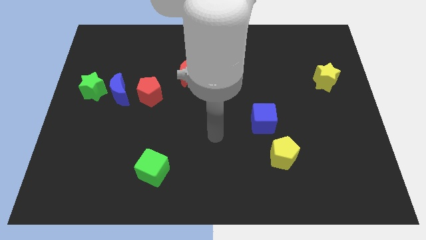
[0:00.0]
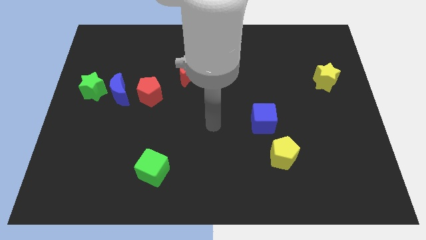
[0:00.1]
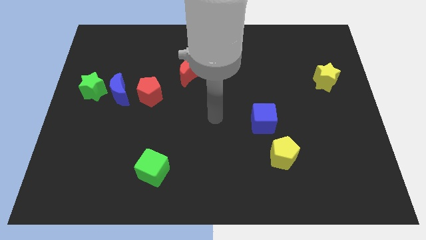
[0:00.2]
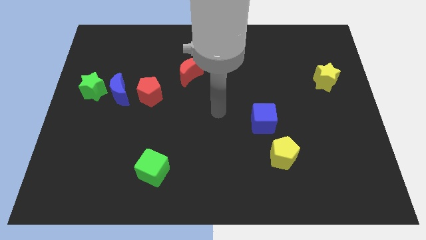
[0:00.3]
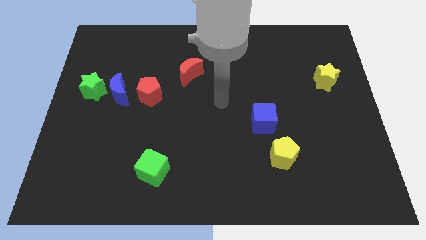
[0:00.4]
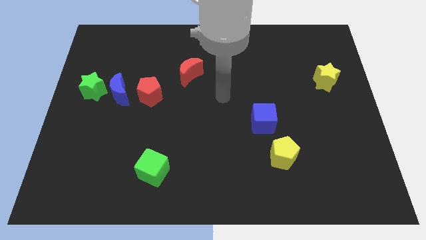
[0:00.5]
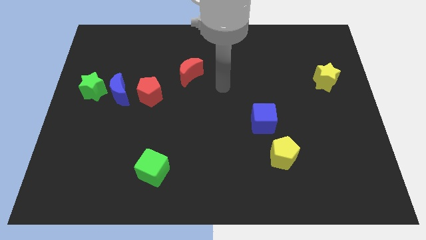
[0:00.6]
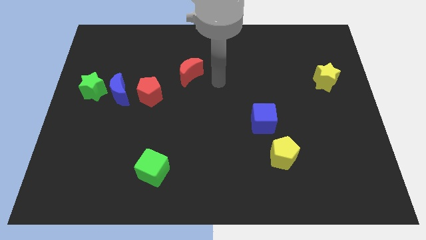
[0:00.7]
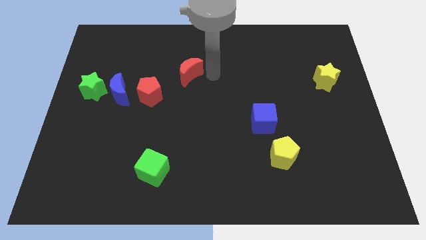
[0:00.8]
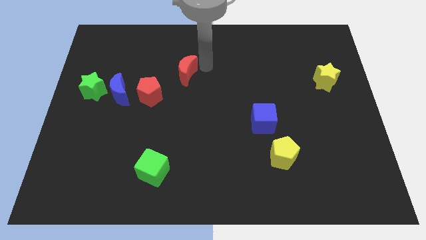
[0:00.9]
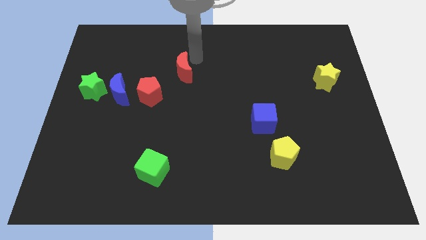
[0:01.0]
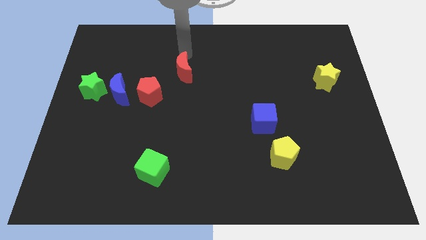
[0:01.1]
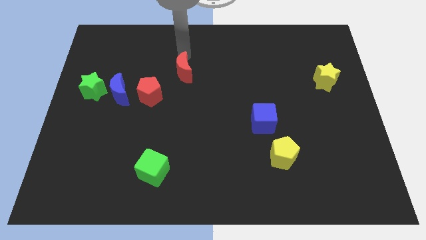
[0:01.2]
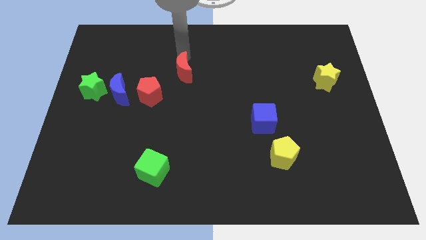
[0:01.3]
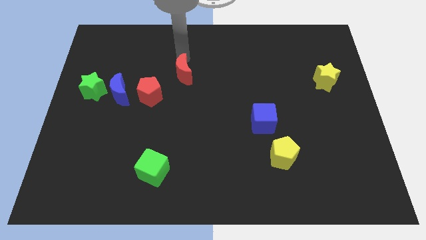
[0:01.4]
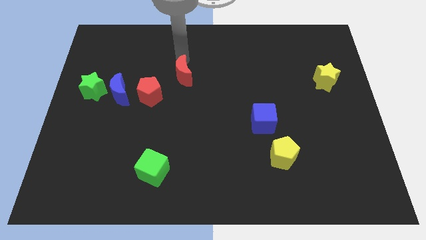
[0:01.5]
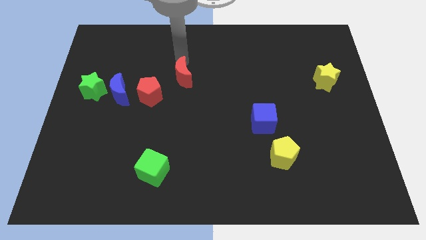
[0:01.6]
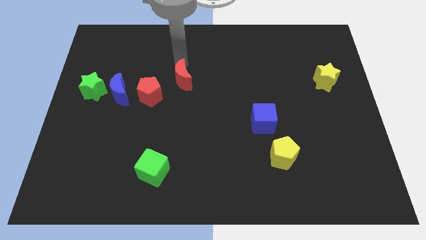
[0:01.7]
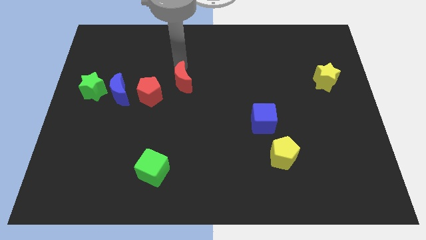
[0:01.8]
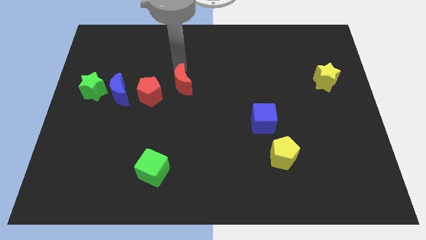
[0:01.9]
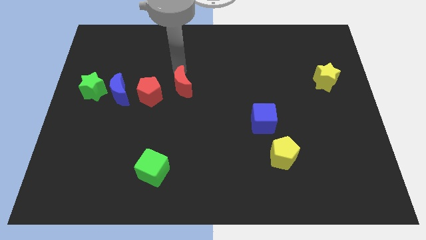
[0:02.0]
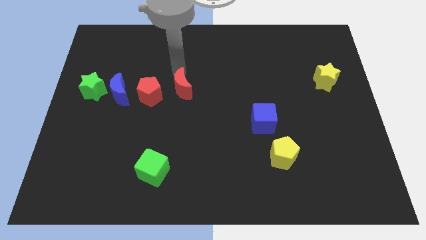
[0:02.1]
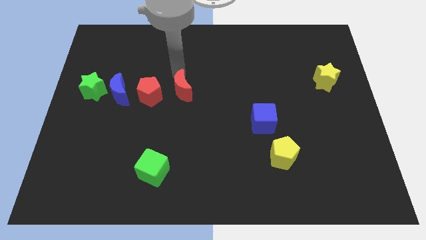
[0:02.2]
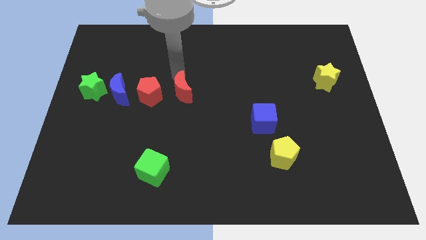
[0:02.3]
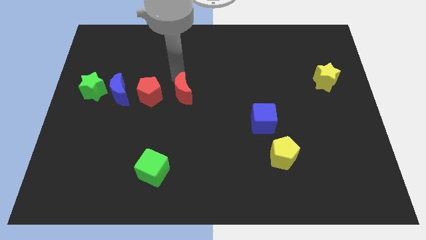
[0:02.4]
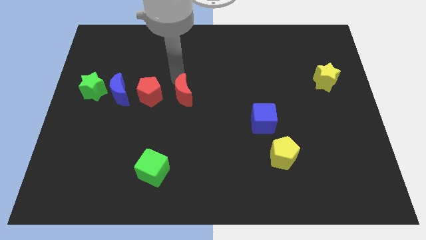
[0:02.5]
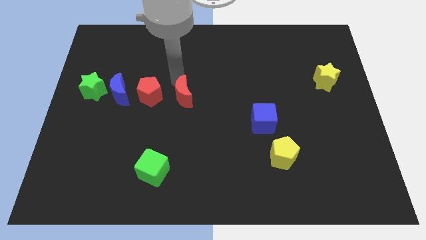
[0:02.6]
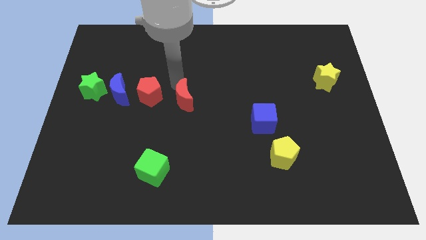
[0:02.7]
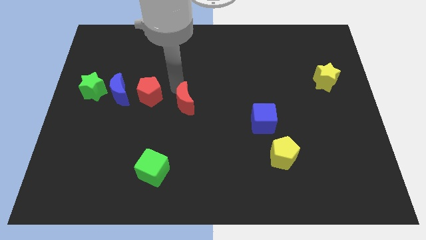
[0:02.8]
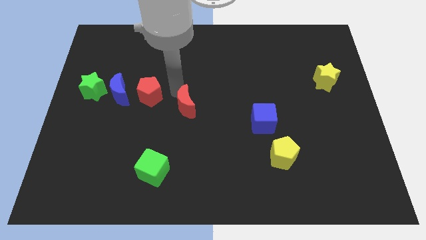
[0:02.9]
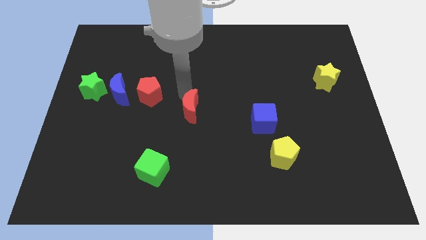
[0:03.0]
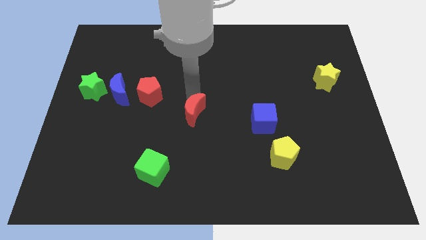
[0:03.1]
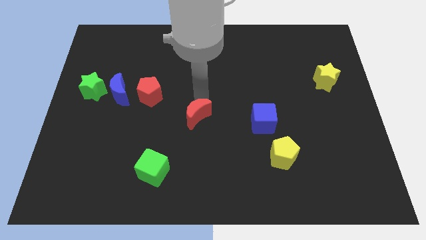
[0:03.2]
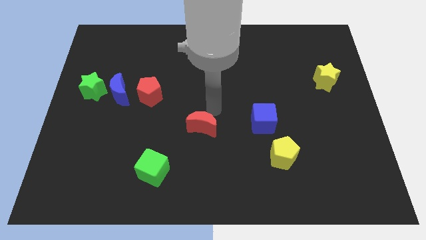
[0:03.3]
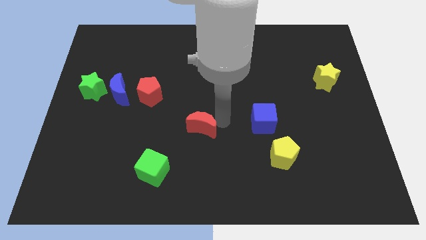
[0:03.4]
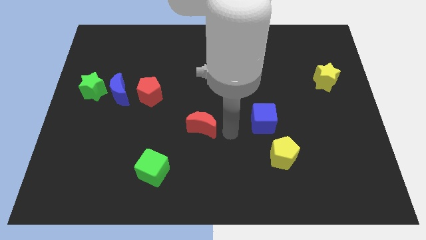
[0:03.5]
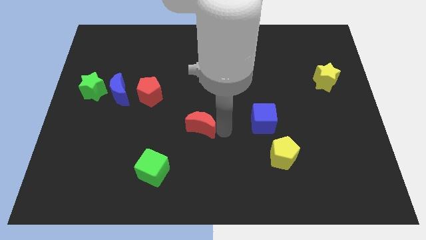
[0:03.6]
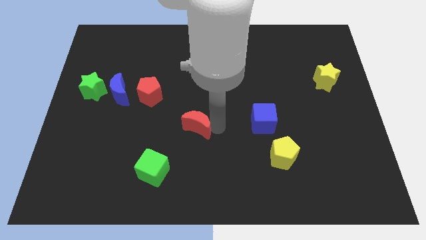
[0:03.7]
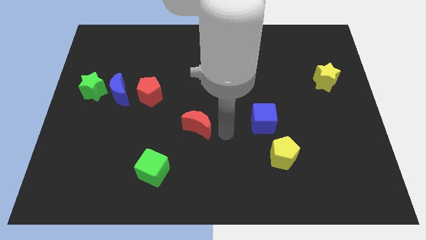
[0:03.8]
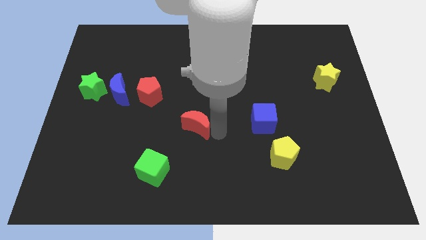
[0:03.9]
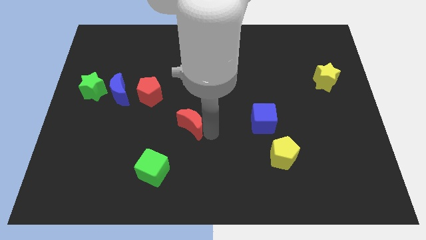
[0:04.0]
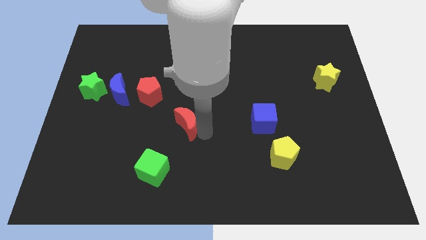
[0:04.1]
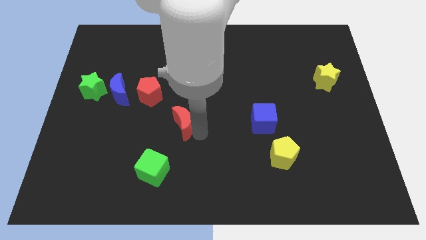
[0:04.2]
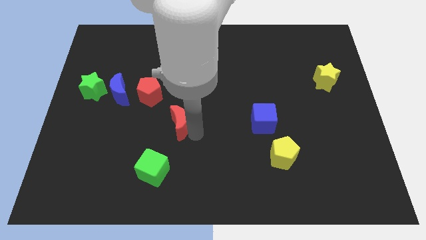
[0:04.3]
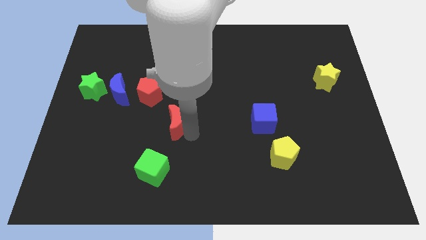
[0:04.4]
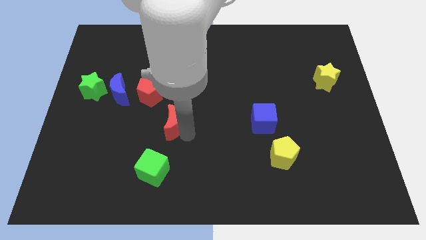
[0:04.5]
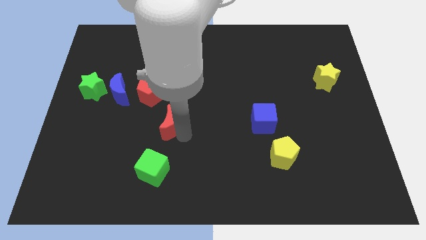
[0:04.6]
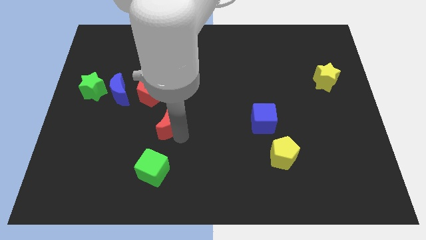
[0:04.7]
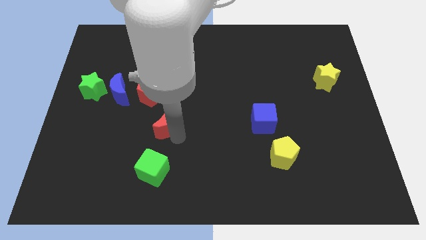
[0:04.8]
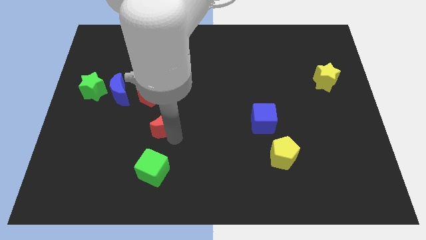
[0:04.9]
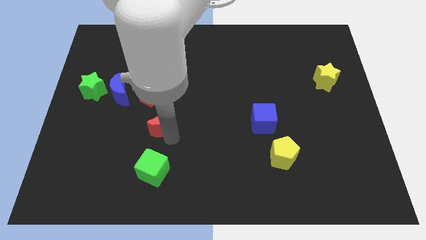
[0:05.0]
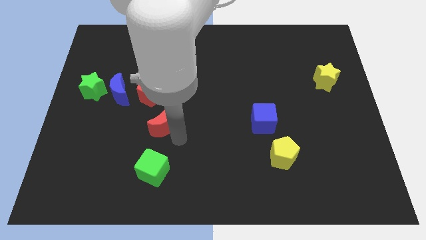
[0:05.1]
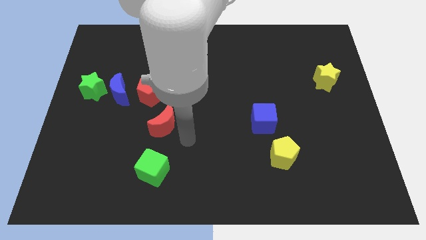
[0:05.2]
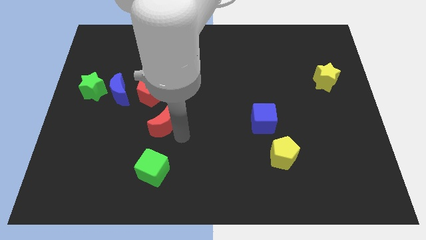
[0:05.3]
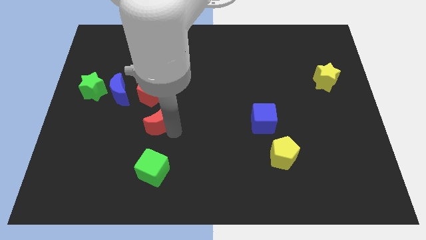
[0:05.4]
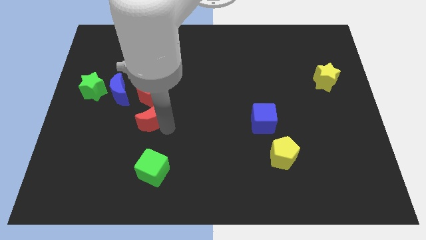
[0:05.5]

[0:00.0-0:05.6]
slide the red moon to the bottom right side of the blue moon

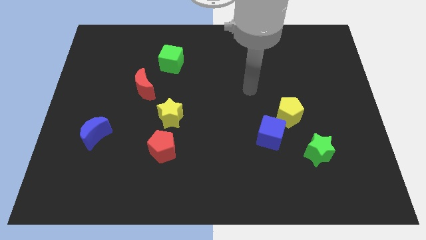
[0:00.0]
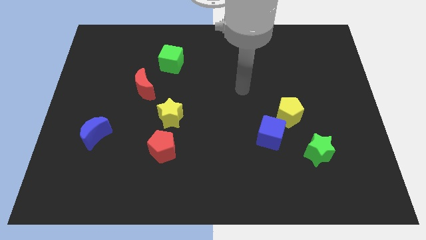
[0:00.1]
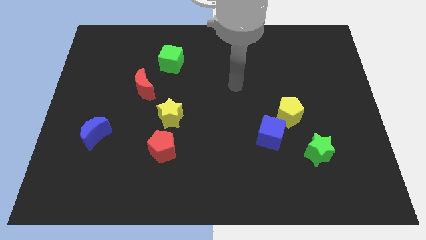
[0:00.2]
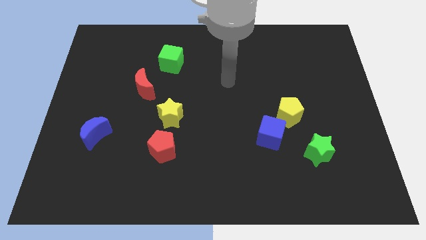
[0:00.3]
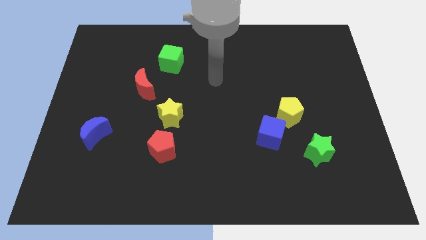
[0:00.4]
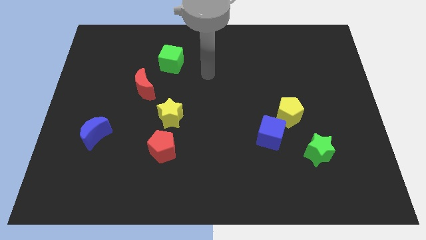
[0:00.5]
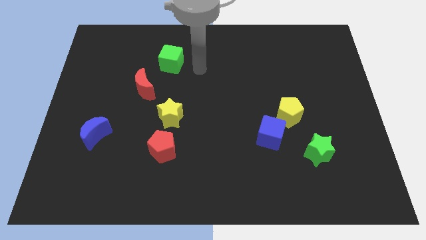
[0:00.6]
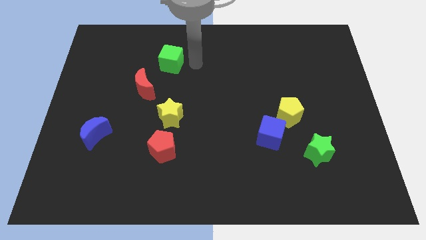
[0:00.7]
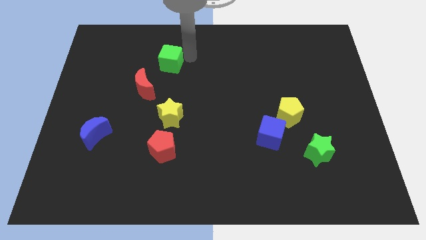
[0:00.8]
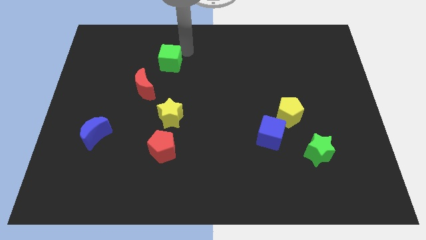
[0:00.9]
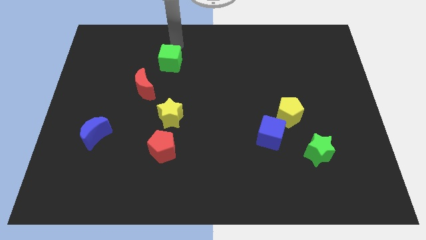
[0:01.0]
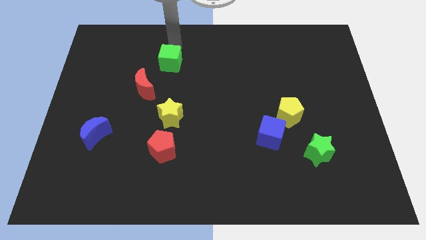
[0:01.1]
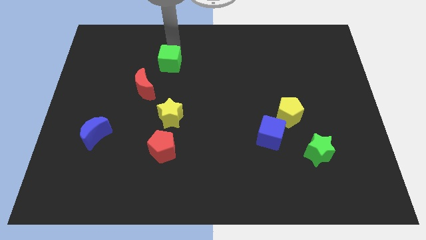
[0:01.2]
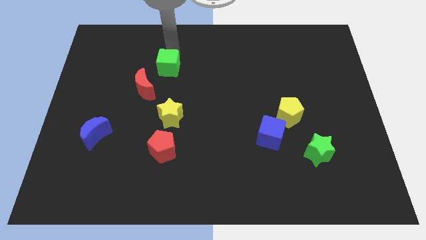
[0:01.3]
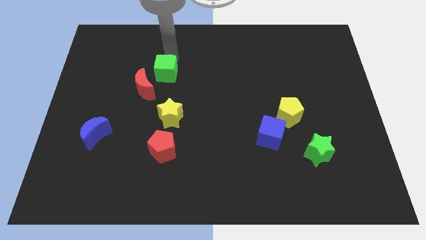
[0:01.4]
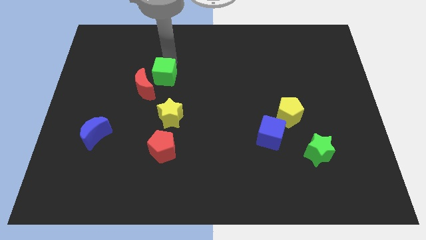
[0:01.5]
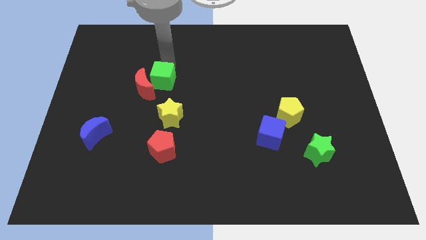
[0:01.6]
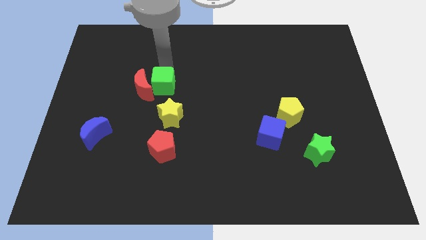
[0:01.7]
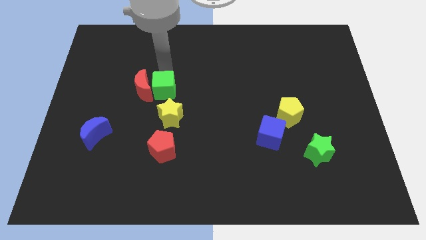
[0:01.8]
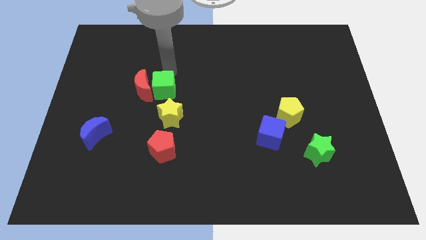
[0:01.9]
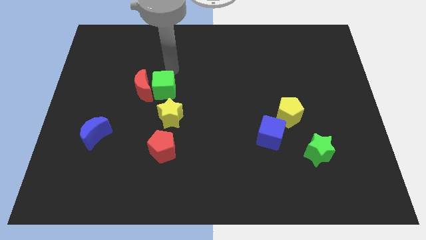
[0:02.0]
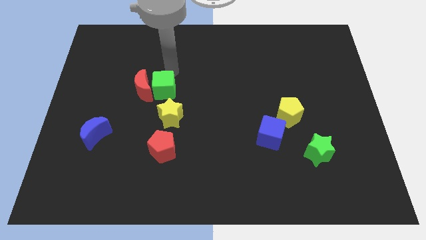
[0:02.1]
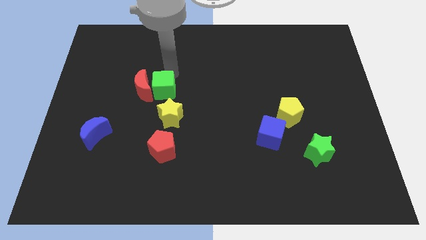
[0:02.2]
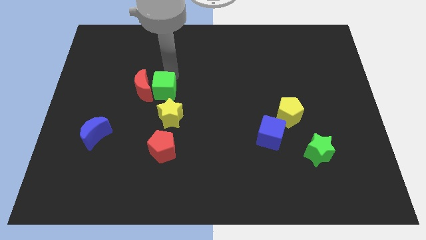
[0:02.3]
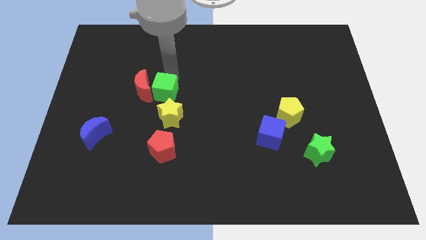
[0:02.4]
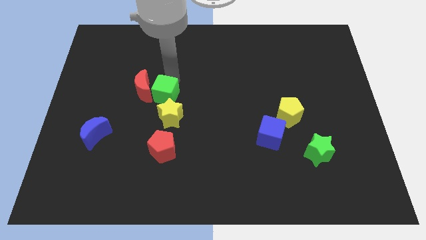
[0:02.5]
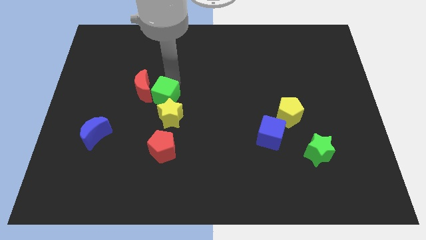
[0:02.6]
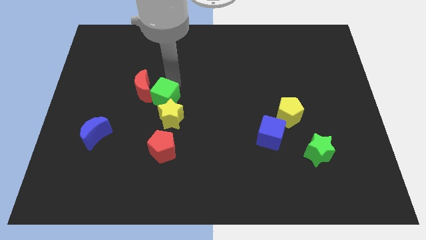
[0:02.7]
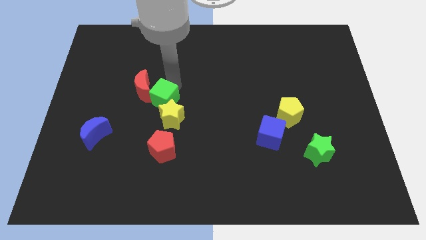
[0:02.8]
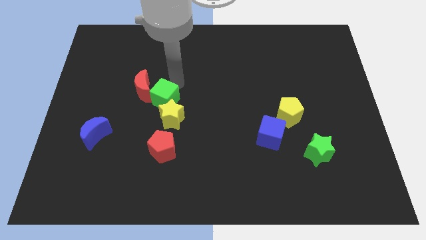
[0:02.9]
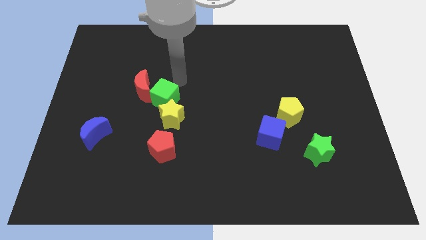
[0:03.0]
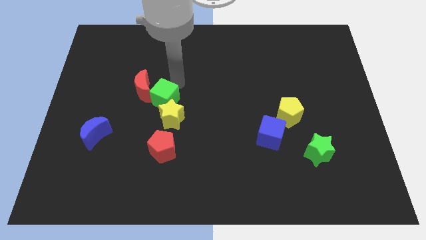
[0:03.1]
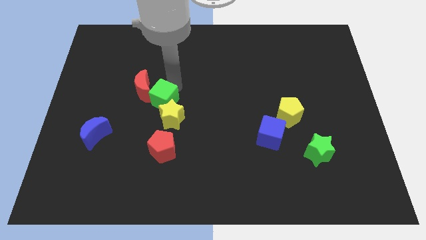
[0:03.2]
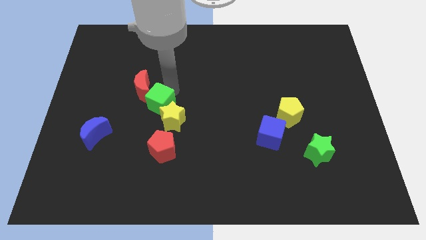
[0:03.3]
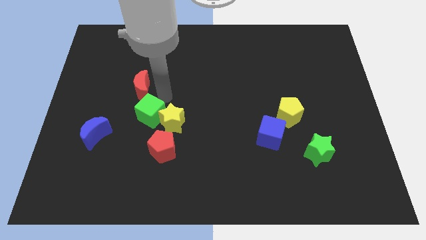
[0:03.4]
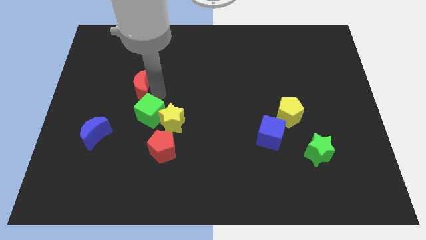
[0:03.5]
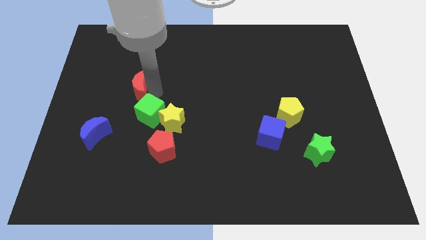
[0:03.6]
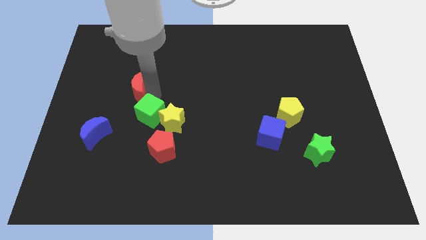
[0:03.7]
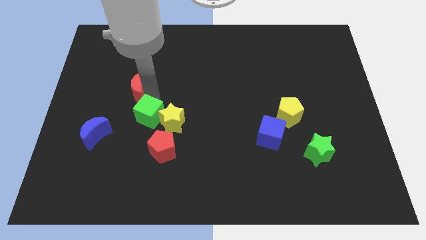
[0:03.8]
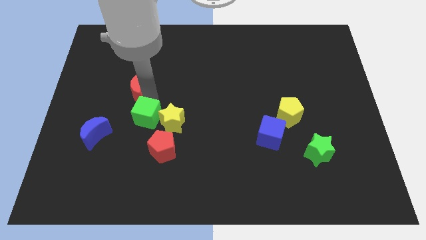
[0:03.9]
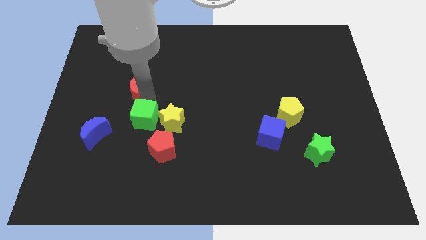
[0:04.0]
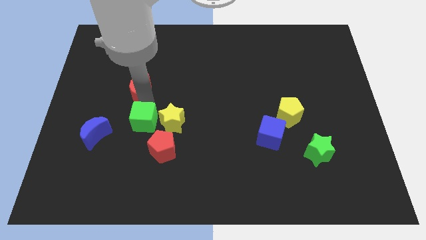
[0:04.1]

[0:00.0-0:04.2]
put the green cube to the bottom left of the yellow star
